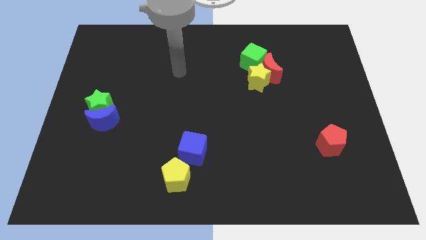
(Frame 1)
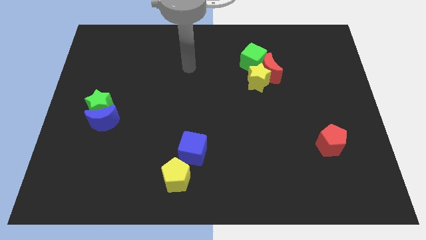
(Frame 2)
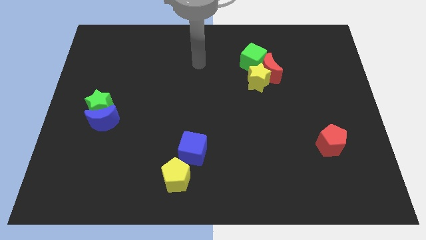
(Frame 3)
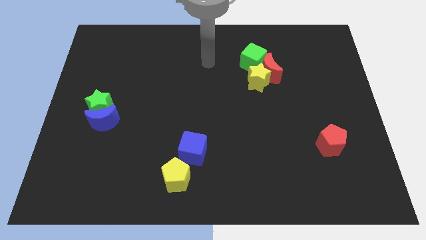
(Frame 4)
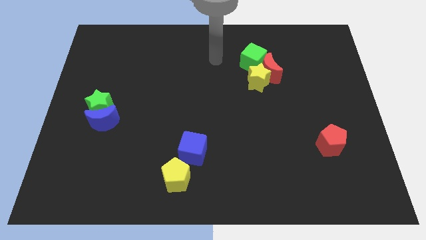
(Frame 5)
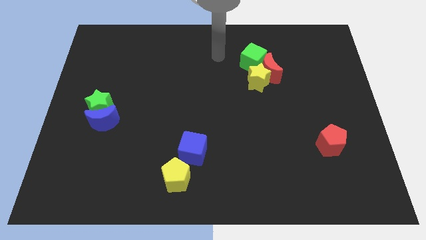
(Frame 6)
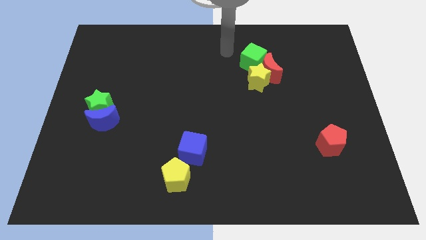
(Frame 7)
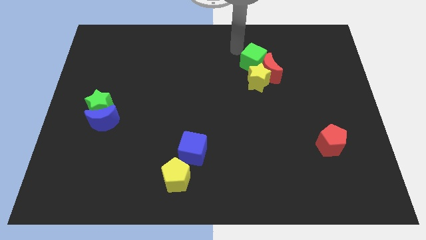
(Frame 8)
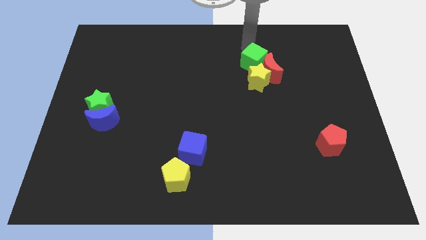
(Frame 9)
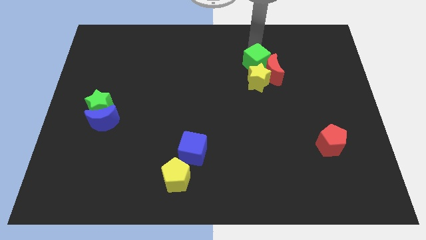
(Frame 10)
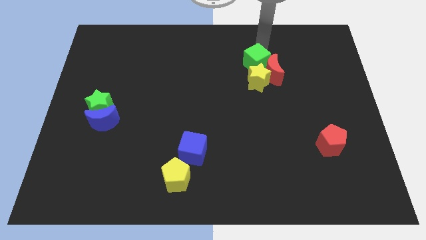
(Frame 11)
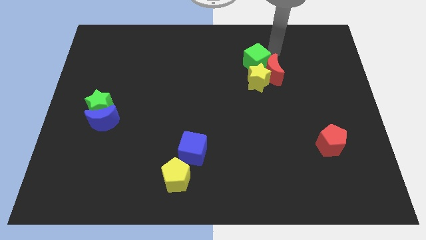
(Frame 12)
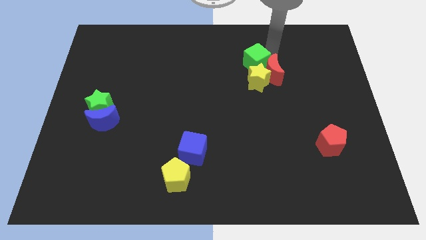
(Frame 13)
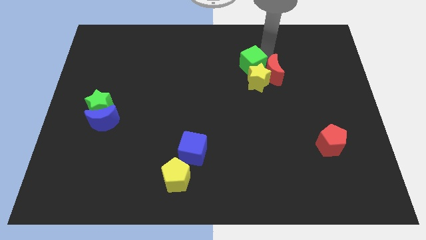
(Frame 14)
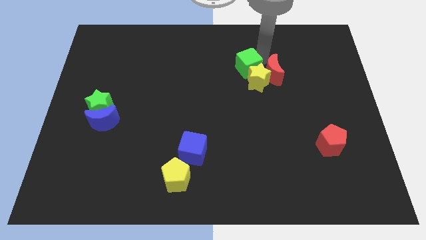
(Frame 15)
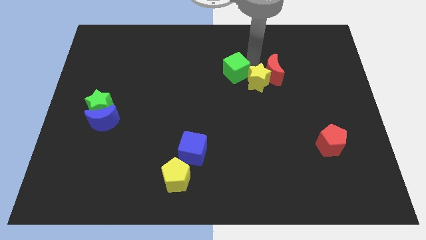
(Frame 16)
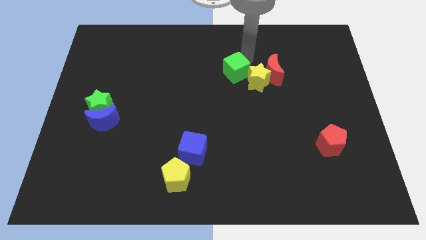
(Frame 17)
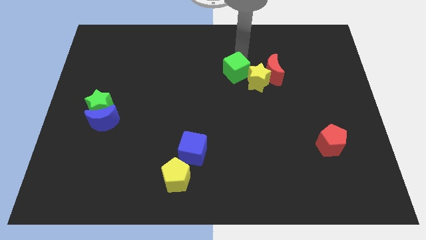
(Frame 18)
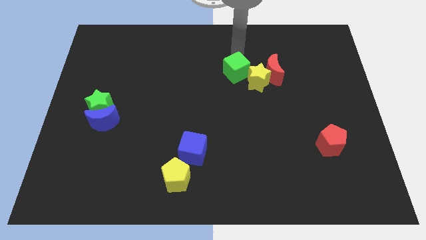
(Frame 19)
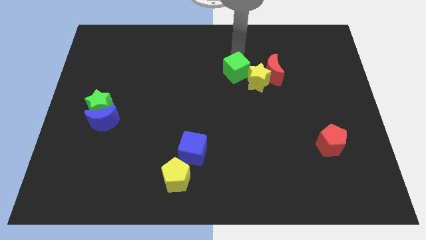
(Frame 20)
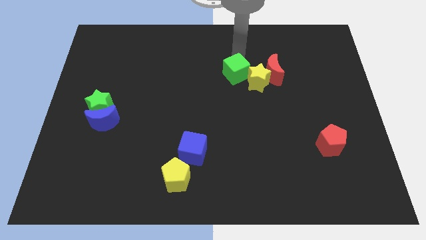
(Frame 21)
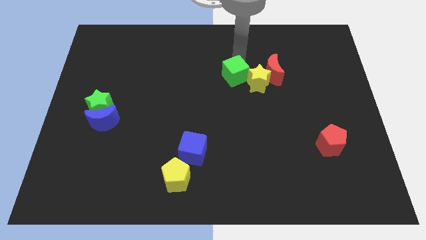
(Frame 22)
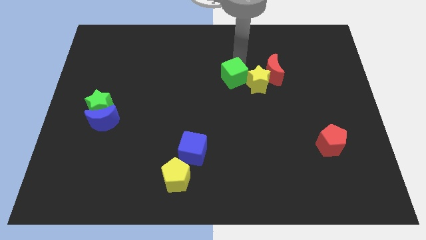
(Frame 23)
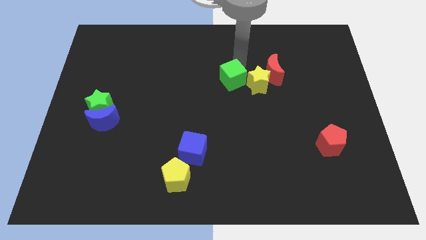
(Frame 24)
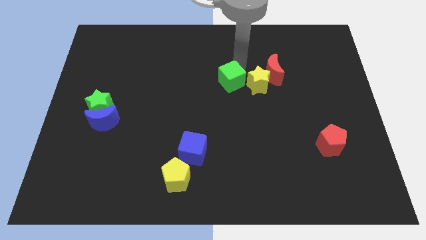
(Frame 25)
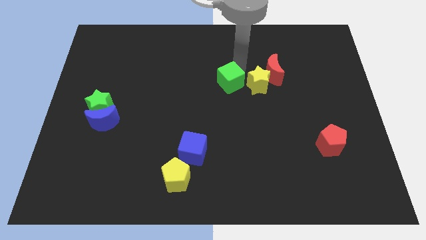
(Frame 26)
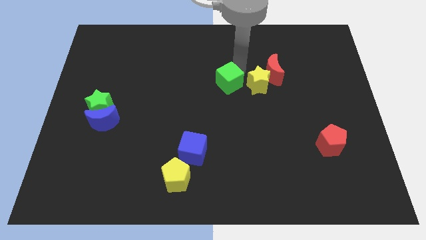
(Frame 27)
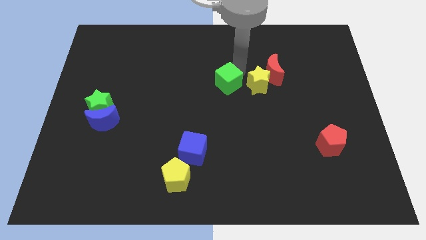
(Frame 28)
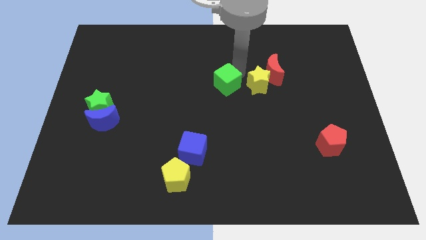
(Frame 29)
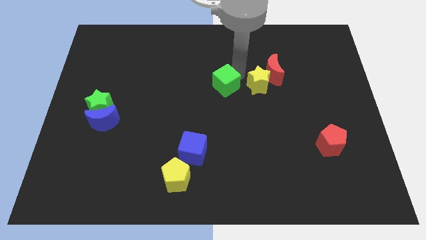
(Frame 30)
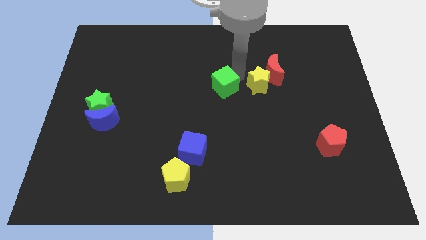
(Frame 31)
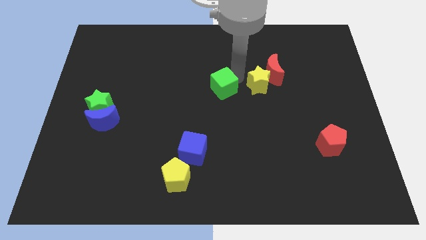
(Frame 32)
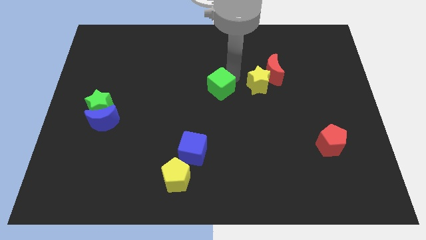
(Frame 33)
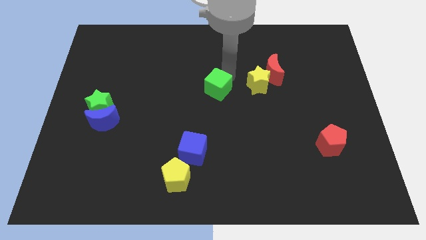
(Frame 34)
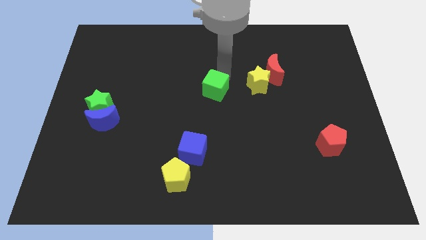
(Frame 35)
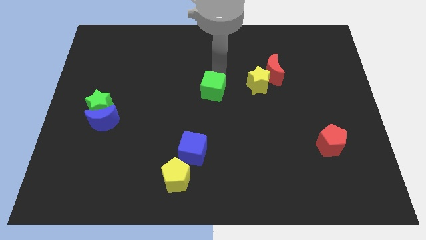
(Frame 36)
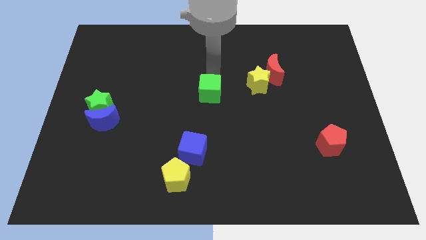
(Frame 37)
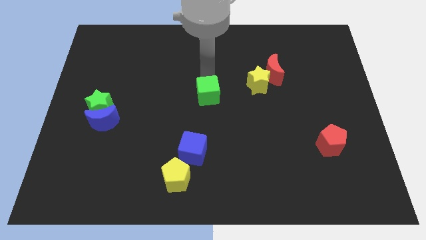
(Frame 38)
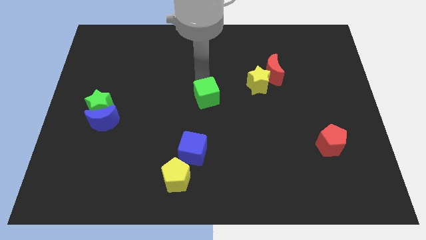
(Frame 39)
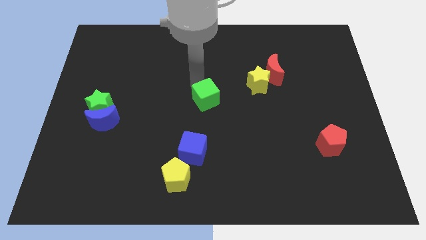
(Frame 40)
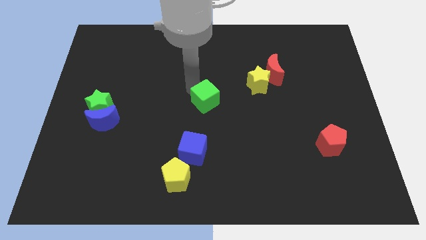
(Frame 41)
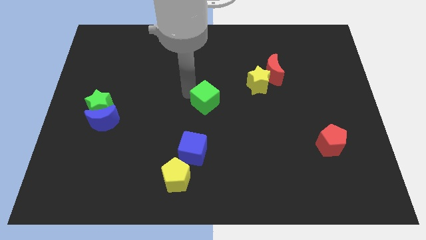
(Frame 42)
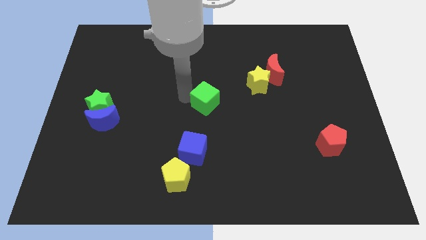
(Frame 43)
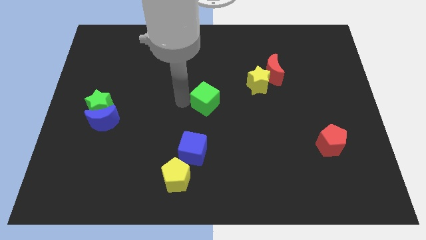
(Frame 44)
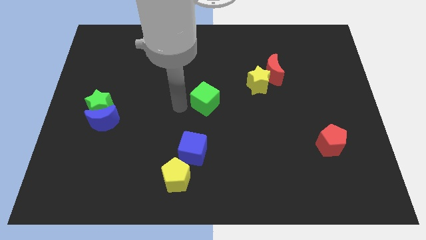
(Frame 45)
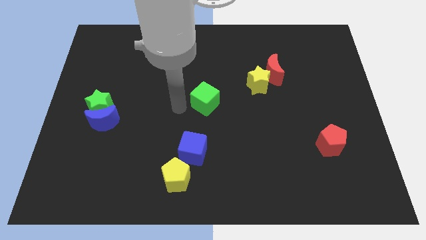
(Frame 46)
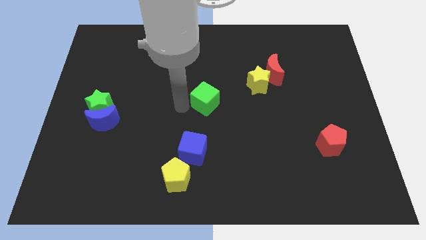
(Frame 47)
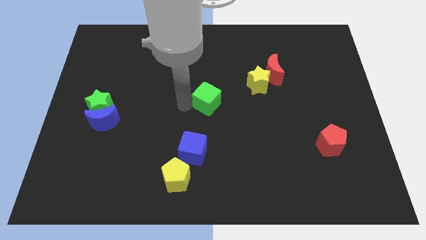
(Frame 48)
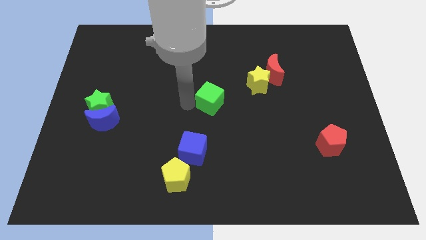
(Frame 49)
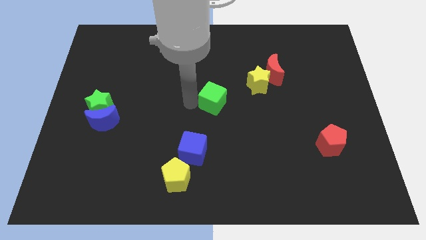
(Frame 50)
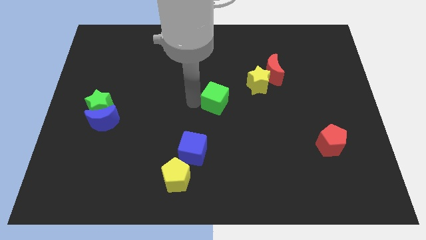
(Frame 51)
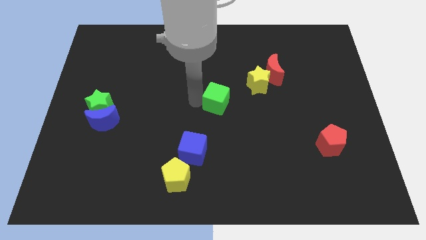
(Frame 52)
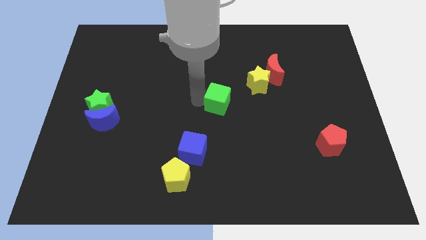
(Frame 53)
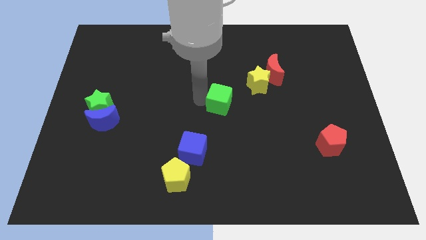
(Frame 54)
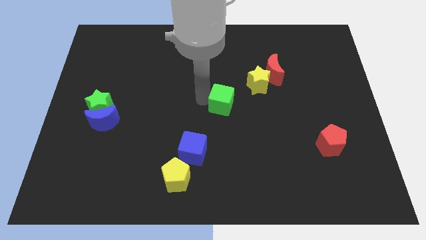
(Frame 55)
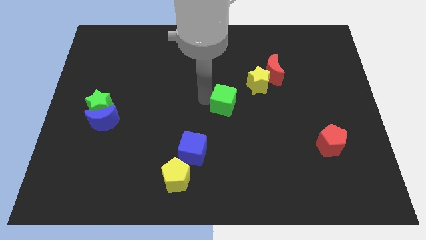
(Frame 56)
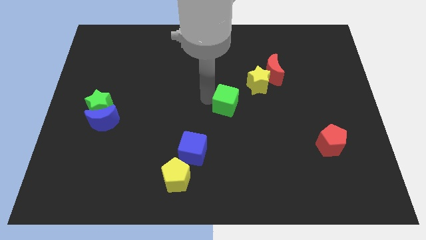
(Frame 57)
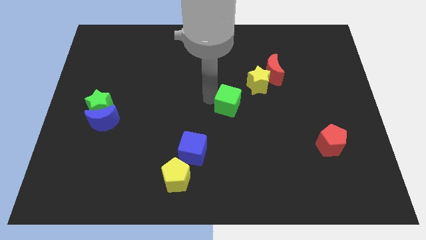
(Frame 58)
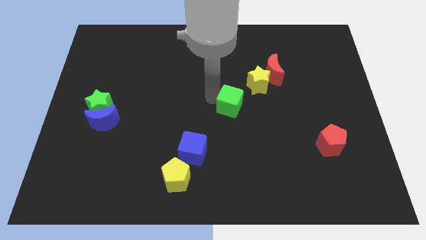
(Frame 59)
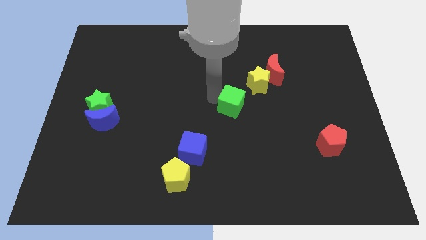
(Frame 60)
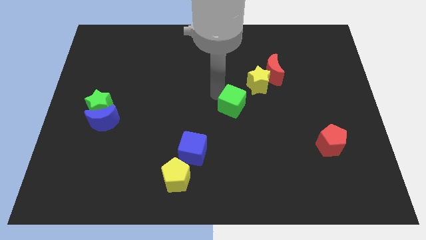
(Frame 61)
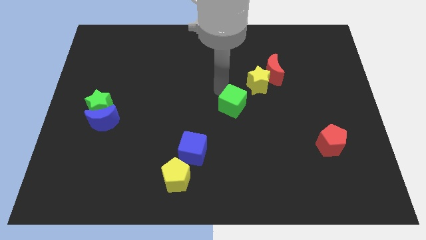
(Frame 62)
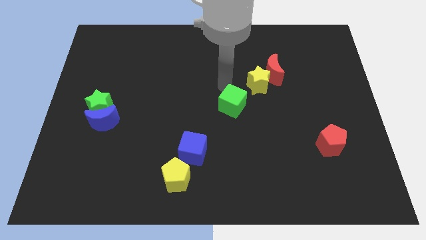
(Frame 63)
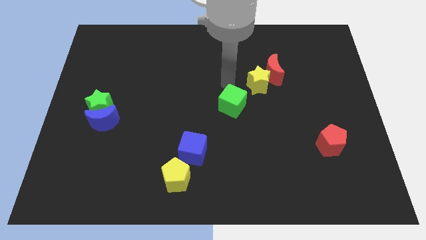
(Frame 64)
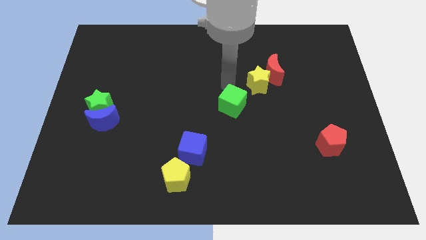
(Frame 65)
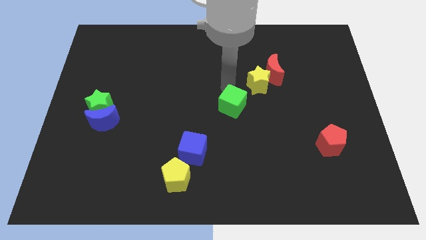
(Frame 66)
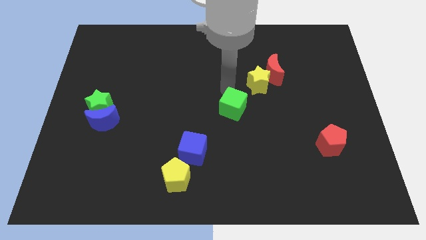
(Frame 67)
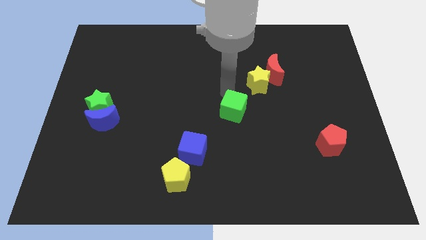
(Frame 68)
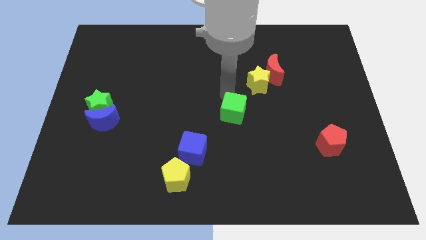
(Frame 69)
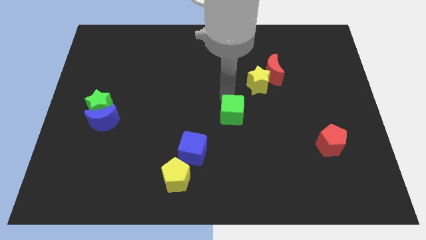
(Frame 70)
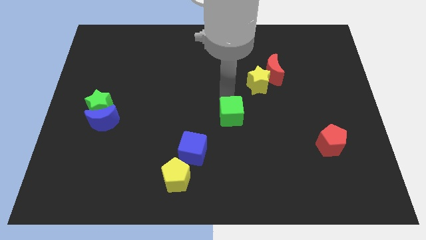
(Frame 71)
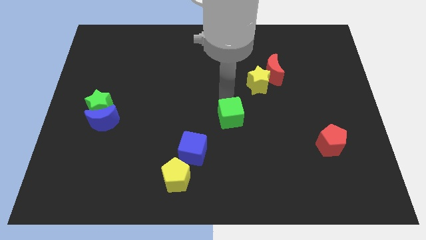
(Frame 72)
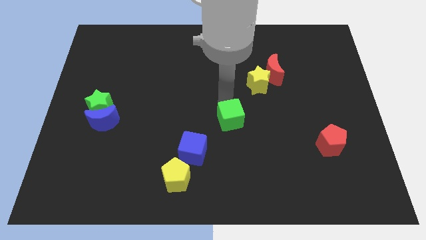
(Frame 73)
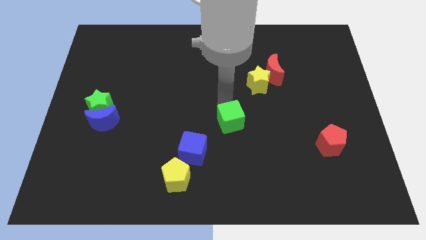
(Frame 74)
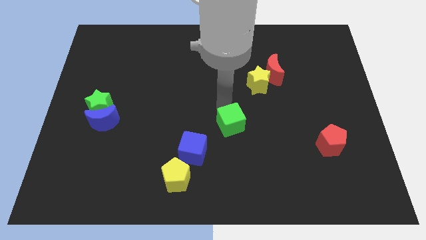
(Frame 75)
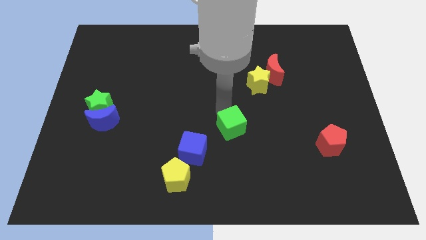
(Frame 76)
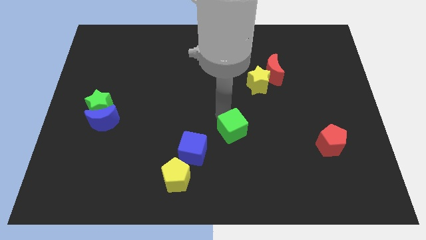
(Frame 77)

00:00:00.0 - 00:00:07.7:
move the green cube down

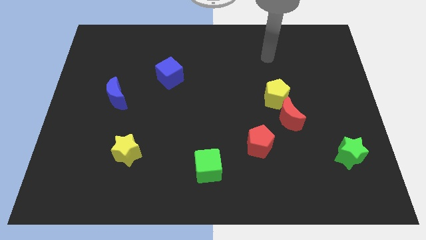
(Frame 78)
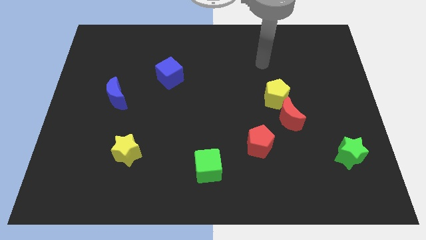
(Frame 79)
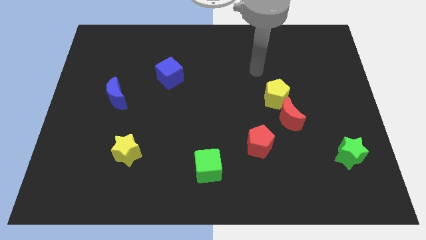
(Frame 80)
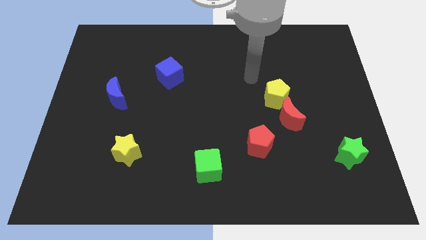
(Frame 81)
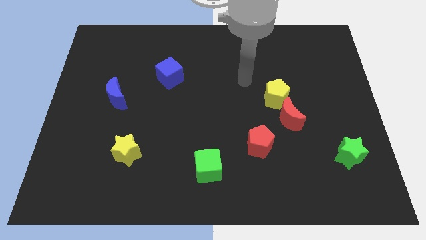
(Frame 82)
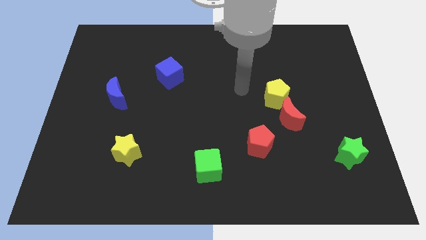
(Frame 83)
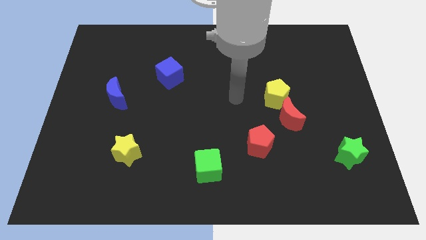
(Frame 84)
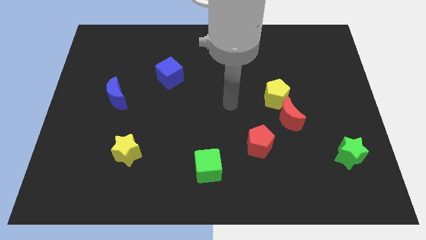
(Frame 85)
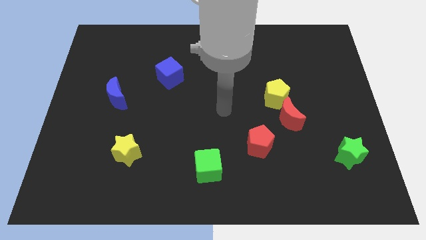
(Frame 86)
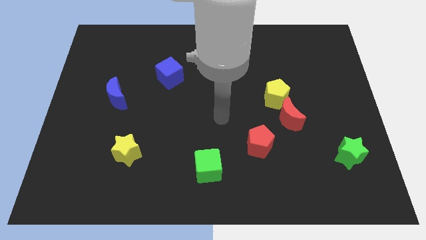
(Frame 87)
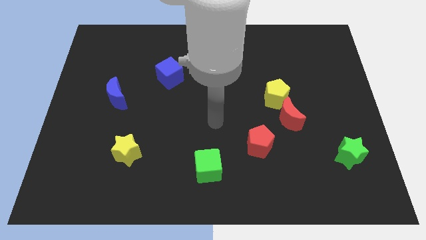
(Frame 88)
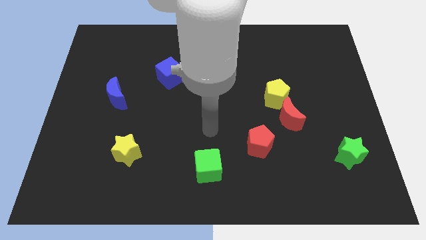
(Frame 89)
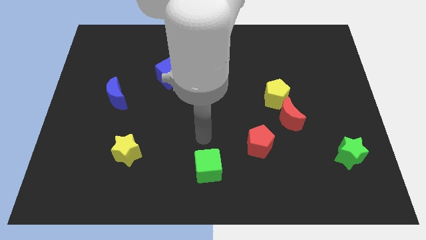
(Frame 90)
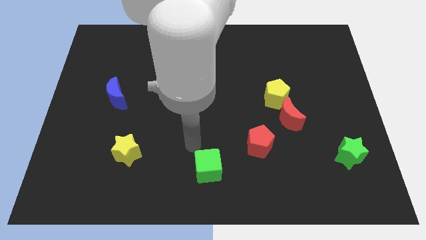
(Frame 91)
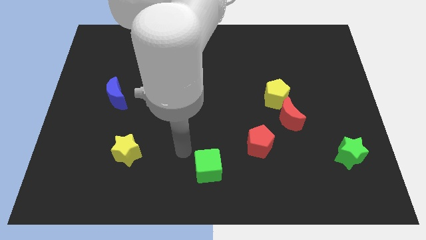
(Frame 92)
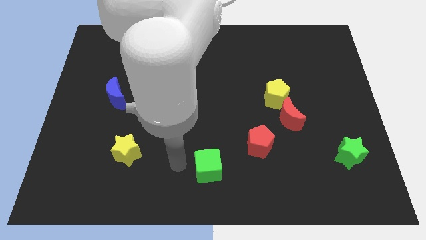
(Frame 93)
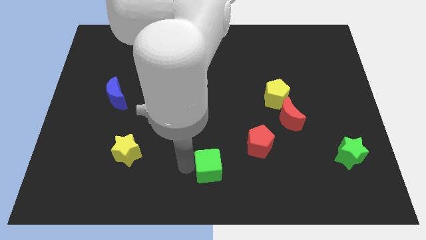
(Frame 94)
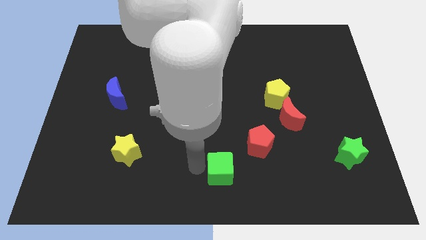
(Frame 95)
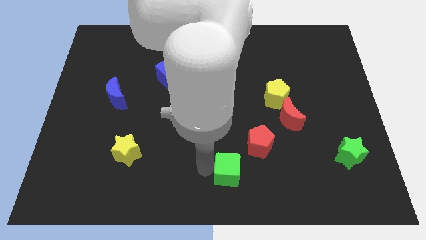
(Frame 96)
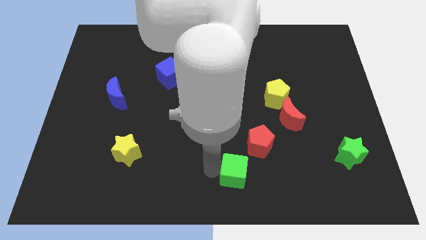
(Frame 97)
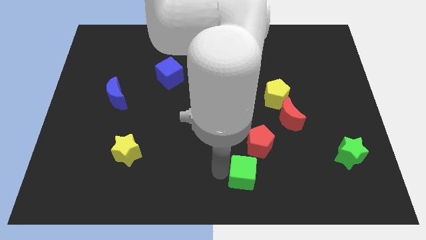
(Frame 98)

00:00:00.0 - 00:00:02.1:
slightly push the green cube to the right
